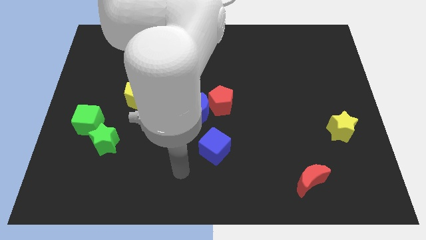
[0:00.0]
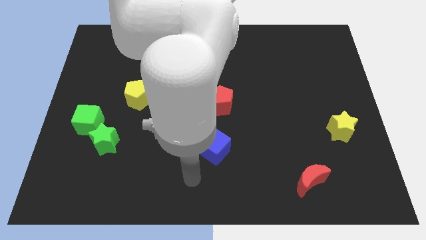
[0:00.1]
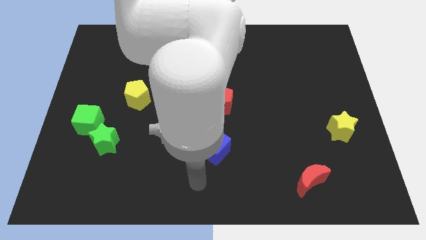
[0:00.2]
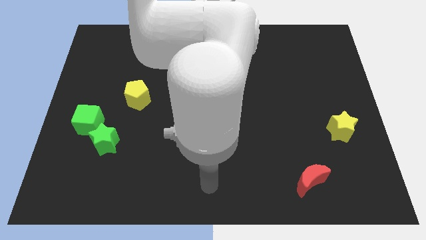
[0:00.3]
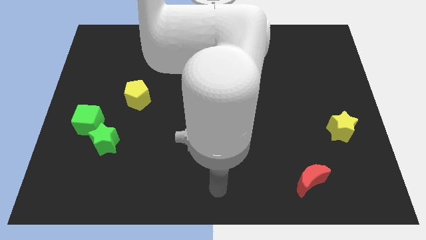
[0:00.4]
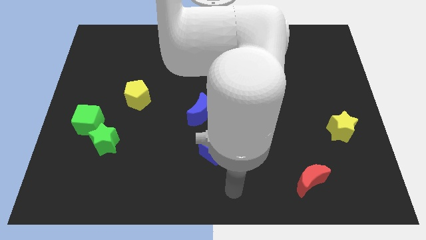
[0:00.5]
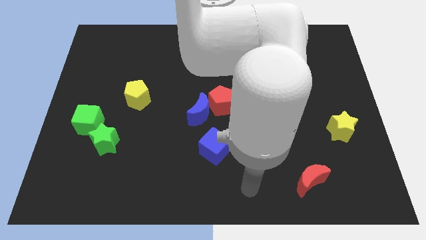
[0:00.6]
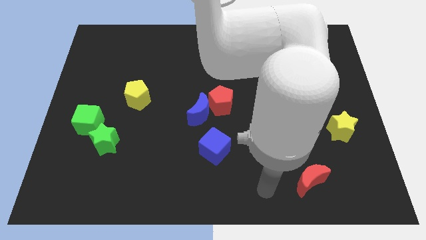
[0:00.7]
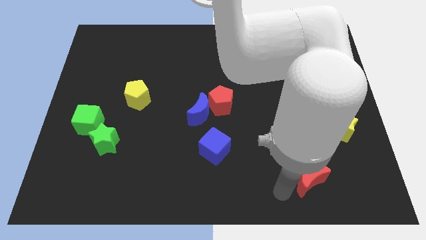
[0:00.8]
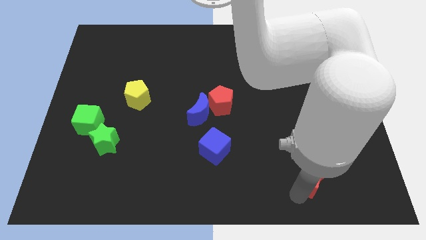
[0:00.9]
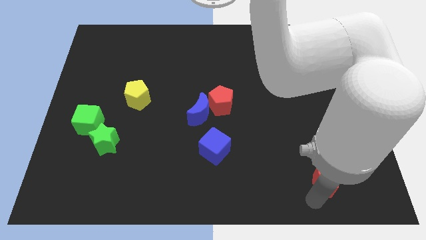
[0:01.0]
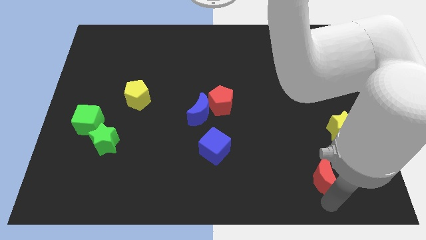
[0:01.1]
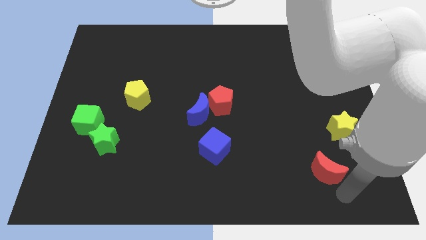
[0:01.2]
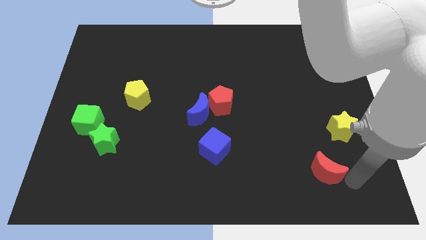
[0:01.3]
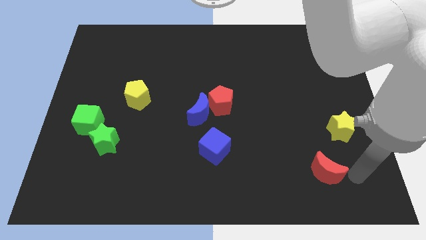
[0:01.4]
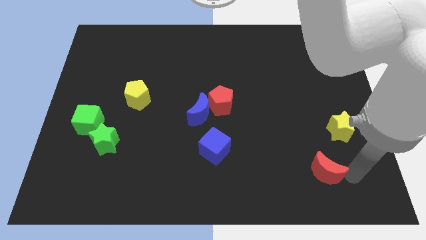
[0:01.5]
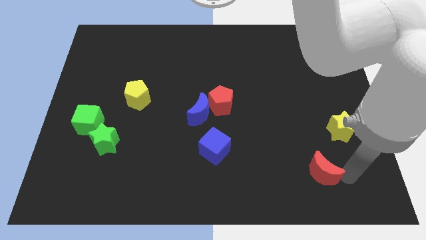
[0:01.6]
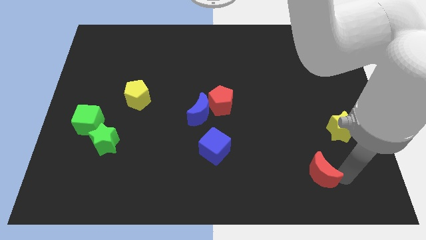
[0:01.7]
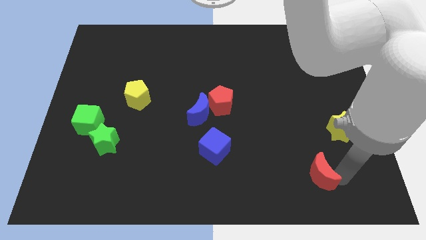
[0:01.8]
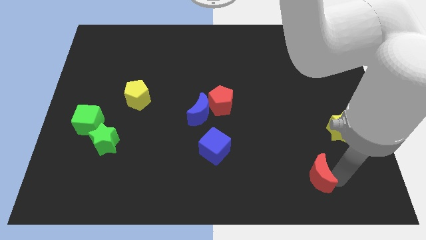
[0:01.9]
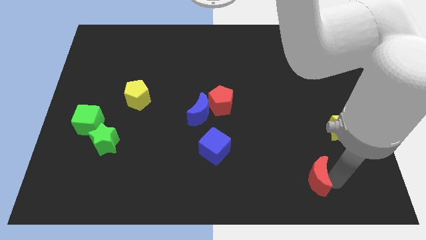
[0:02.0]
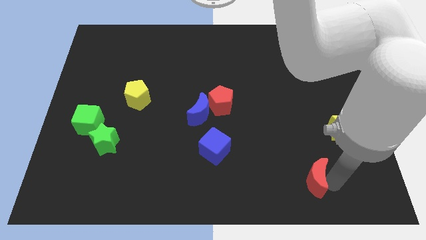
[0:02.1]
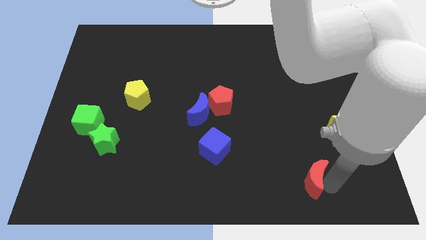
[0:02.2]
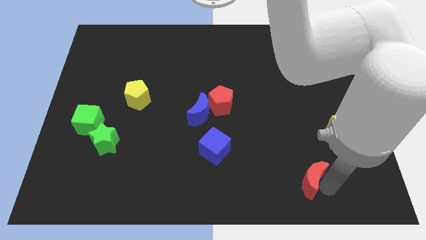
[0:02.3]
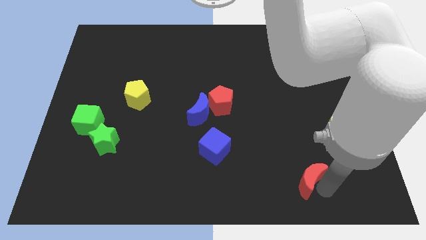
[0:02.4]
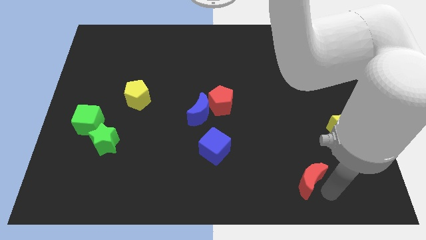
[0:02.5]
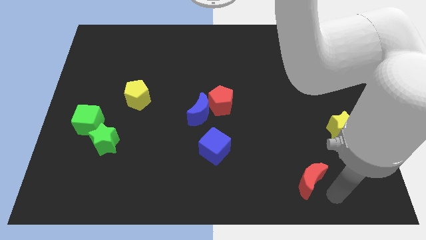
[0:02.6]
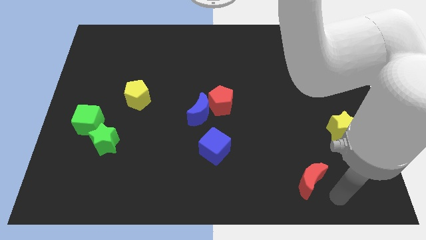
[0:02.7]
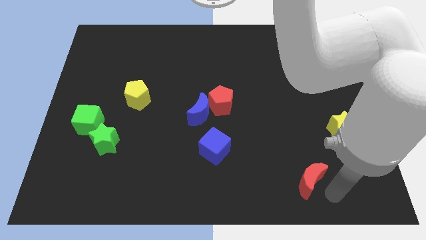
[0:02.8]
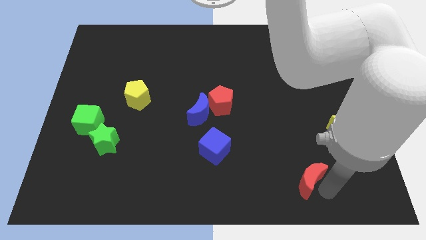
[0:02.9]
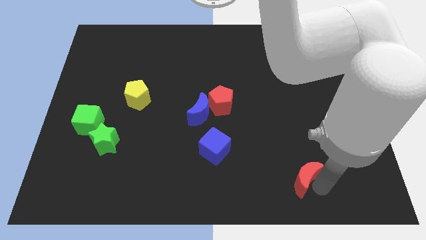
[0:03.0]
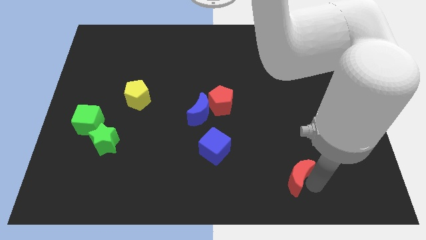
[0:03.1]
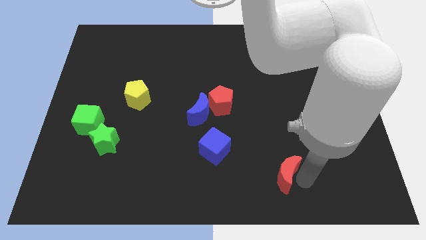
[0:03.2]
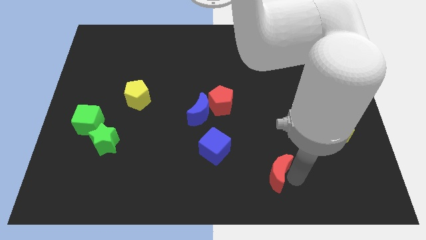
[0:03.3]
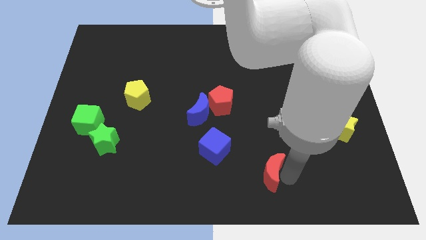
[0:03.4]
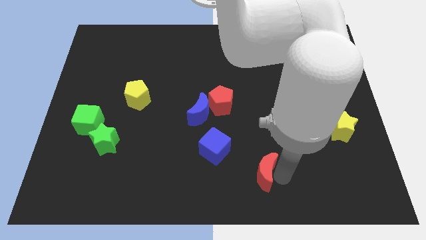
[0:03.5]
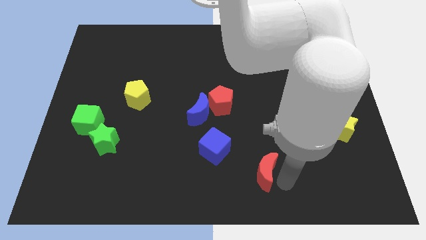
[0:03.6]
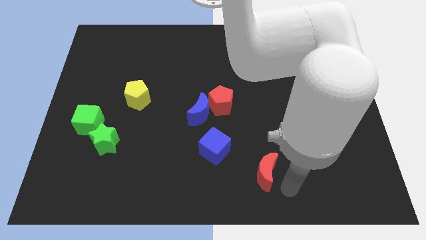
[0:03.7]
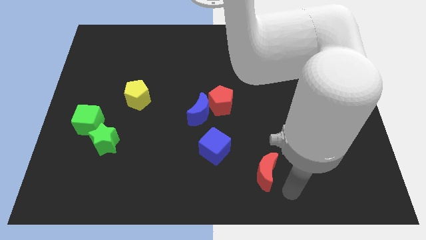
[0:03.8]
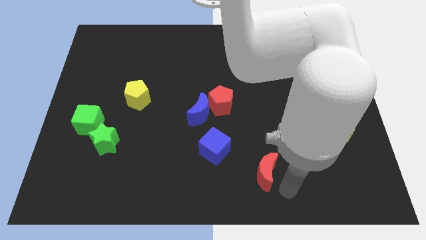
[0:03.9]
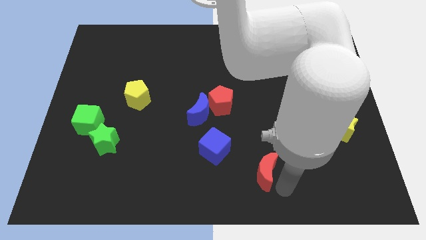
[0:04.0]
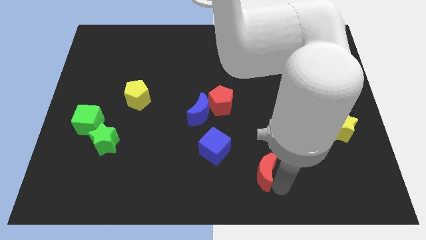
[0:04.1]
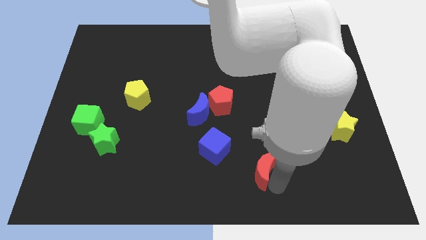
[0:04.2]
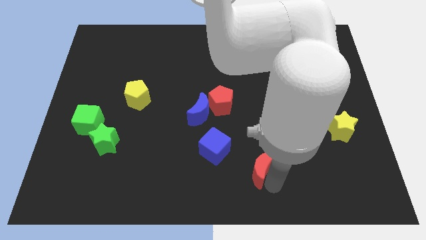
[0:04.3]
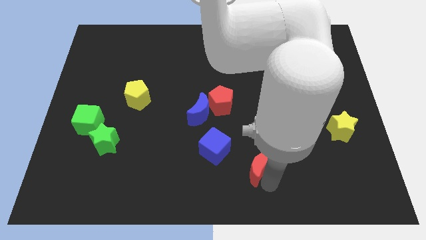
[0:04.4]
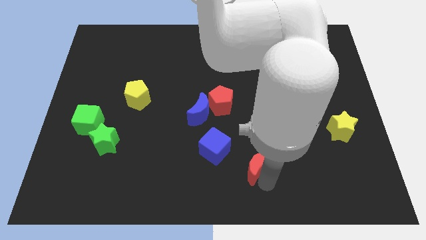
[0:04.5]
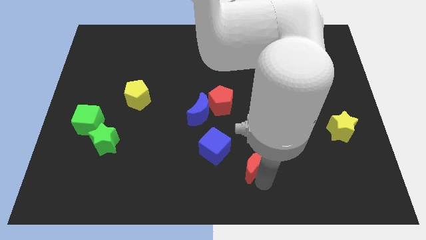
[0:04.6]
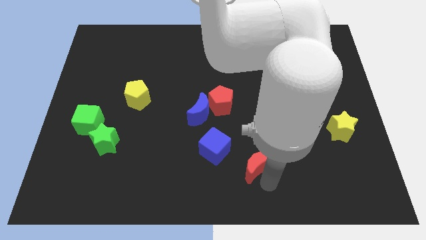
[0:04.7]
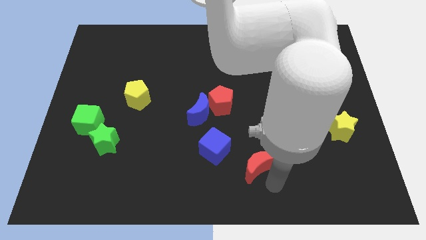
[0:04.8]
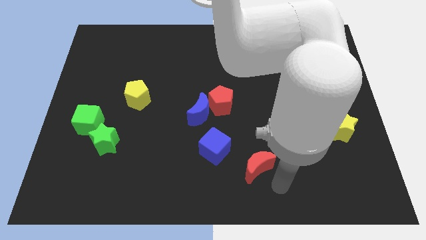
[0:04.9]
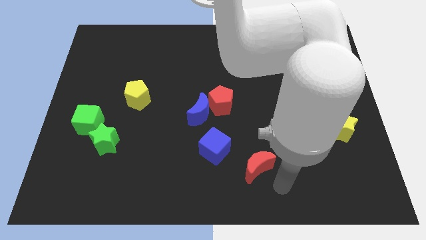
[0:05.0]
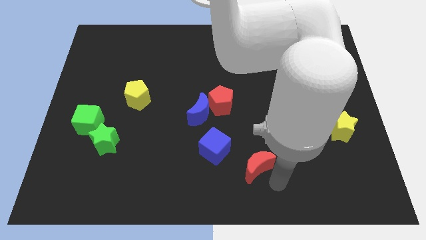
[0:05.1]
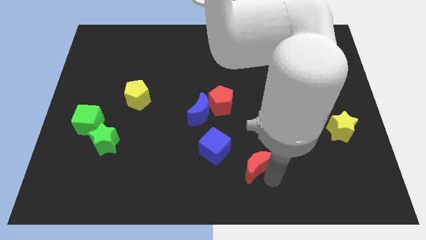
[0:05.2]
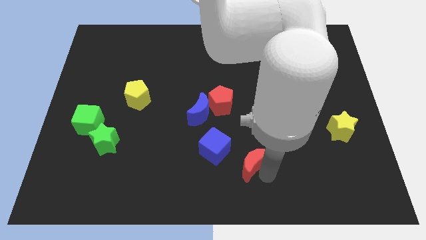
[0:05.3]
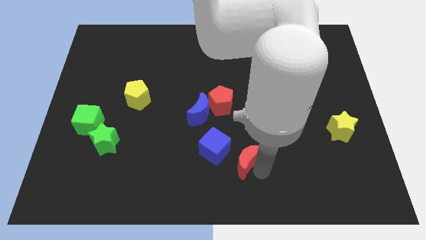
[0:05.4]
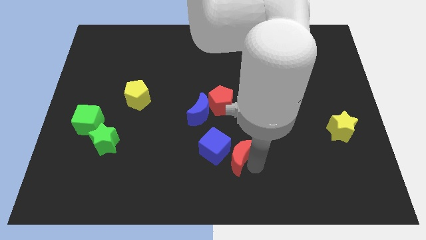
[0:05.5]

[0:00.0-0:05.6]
put the red moon close to the blue cube

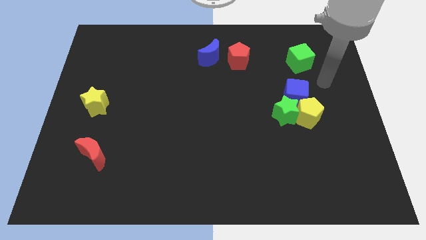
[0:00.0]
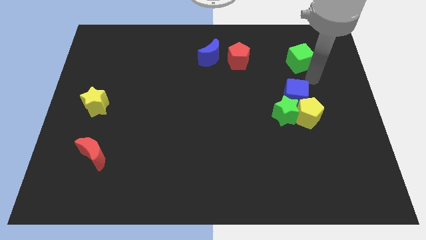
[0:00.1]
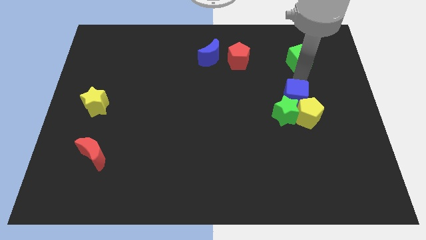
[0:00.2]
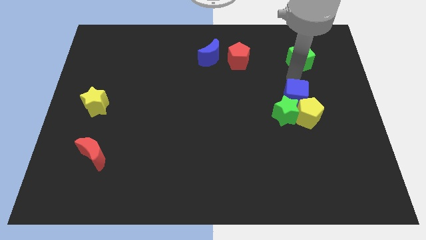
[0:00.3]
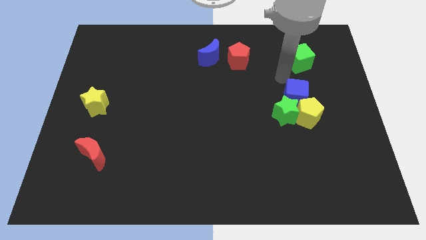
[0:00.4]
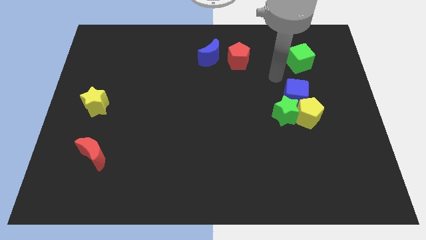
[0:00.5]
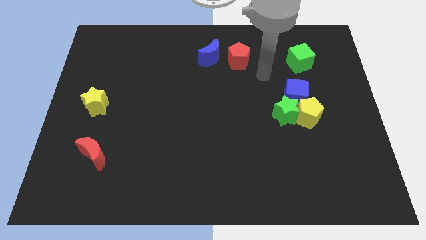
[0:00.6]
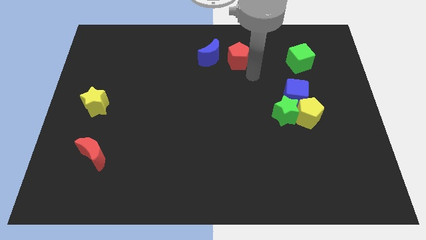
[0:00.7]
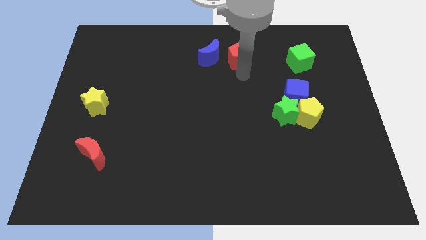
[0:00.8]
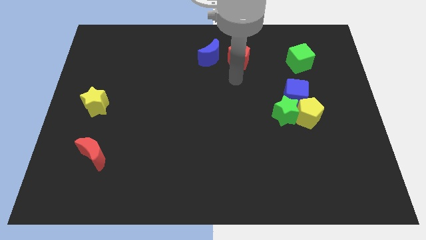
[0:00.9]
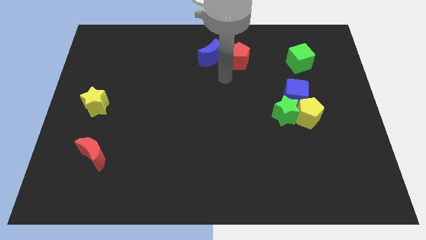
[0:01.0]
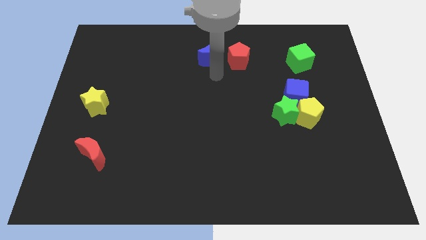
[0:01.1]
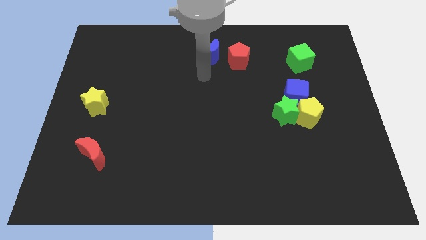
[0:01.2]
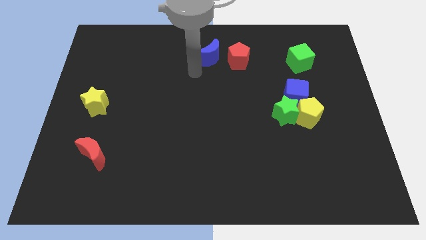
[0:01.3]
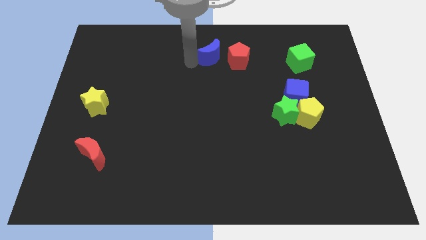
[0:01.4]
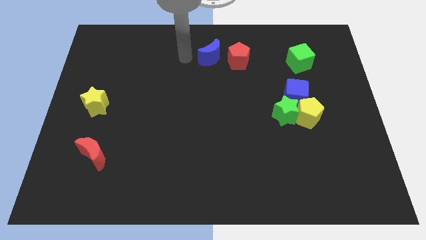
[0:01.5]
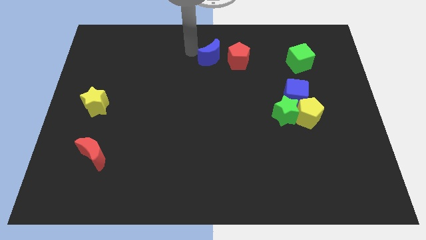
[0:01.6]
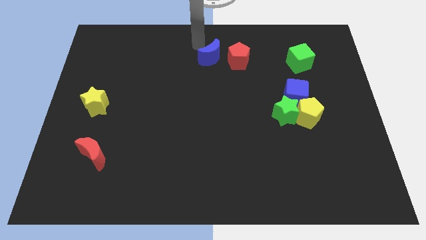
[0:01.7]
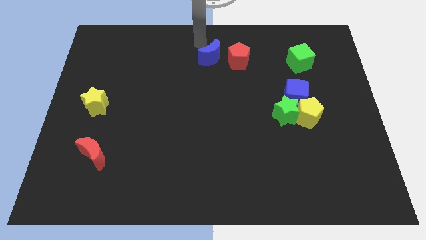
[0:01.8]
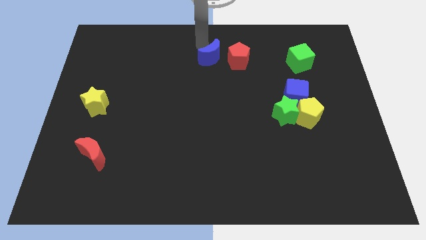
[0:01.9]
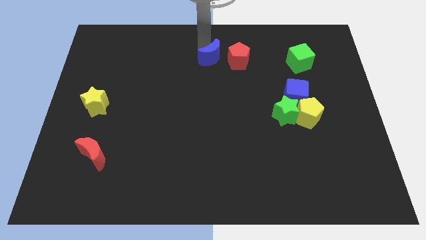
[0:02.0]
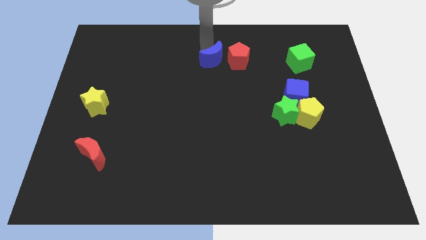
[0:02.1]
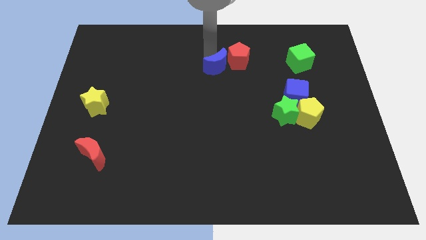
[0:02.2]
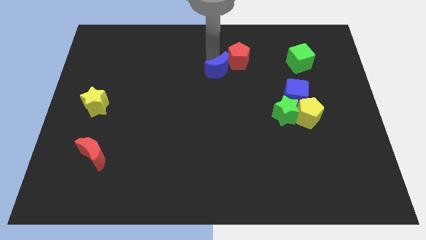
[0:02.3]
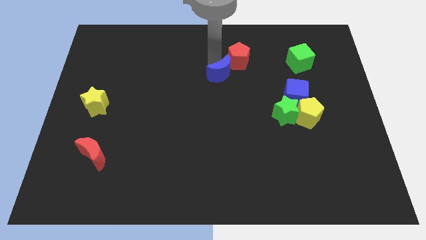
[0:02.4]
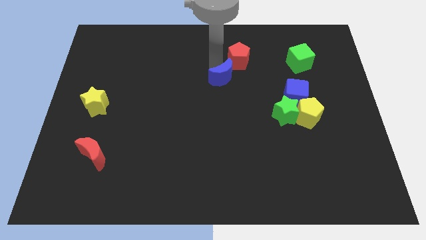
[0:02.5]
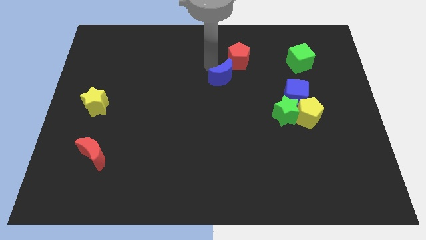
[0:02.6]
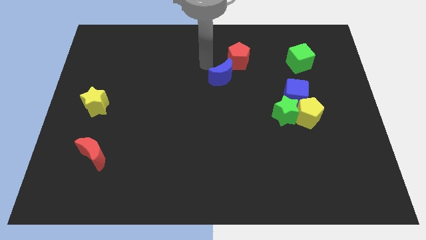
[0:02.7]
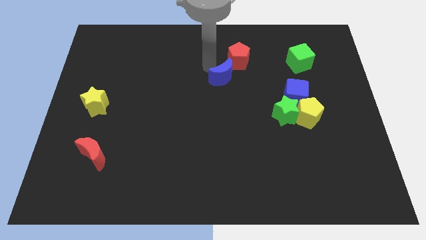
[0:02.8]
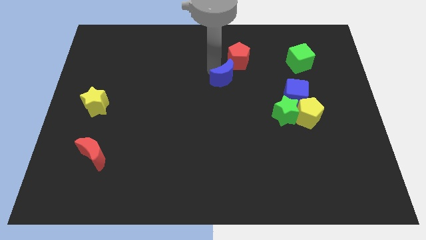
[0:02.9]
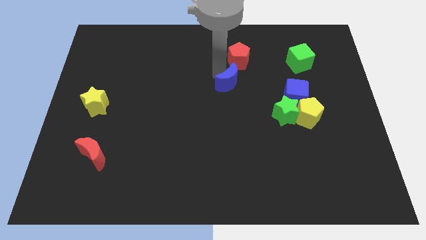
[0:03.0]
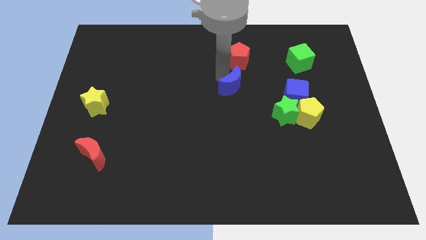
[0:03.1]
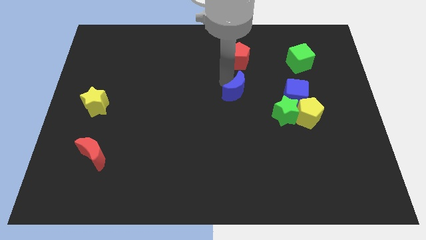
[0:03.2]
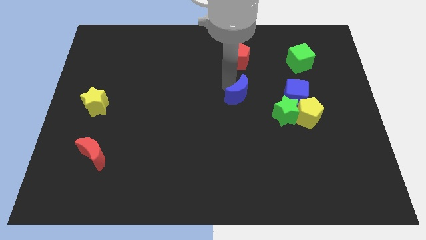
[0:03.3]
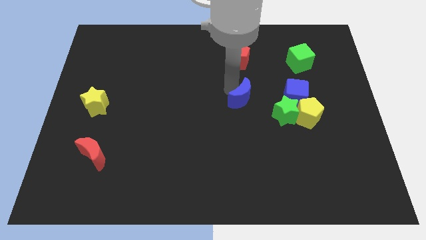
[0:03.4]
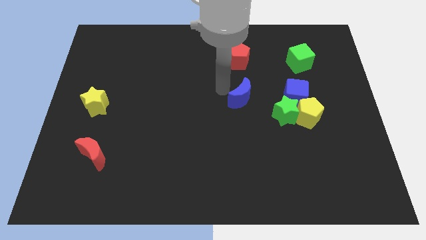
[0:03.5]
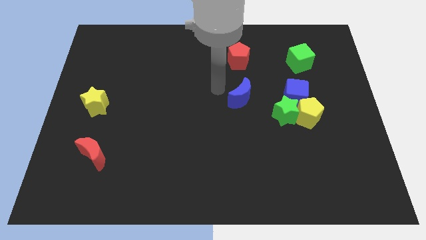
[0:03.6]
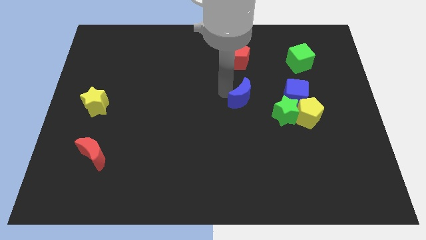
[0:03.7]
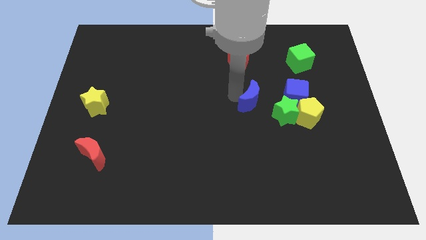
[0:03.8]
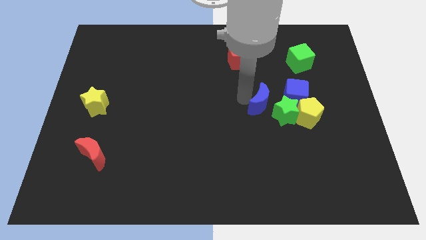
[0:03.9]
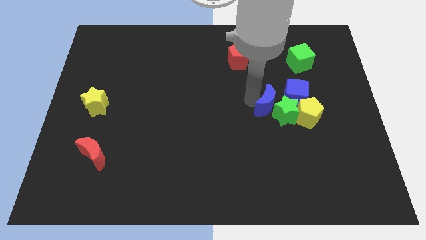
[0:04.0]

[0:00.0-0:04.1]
slide the blue moon to the green star
